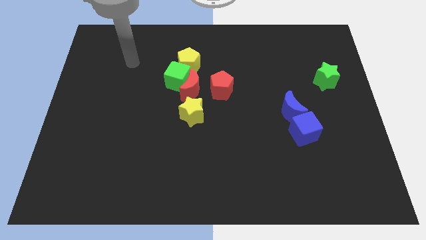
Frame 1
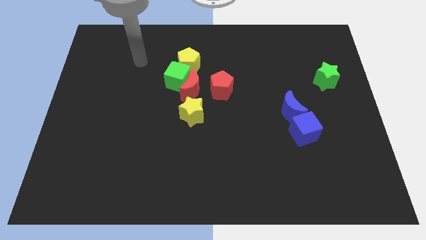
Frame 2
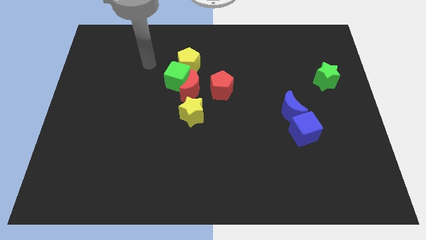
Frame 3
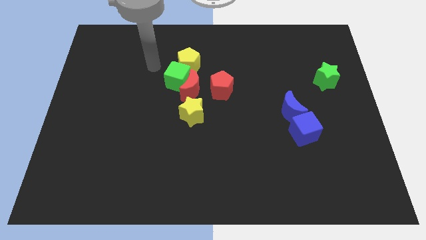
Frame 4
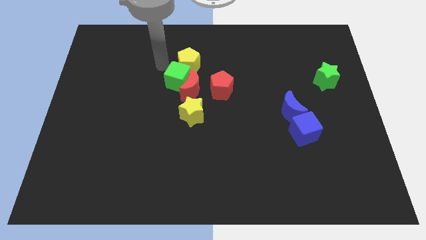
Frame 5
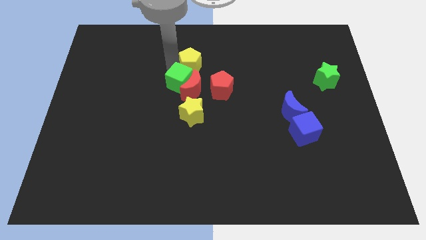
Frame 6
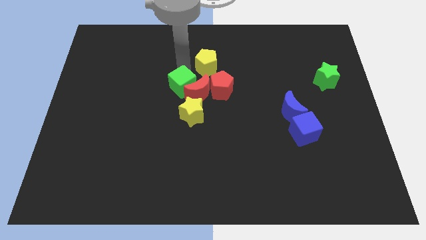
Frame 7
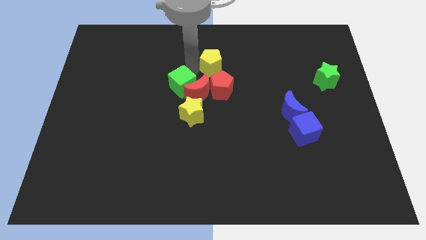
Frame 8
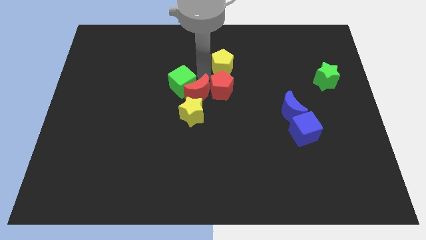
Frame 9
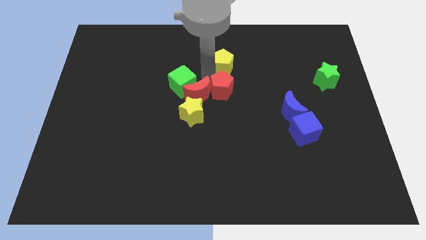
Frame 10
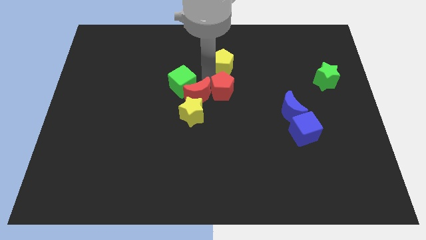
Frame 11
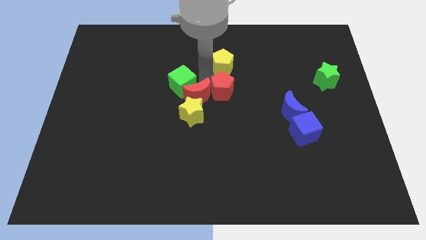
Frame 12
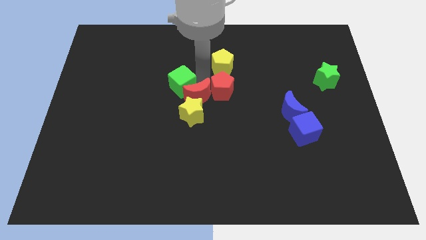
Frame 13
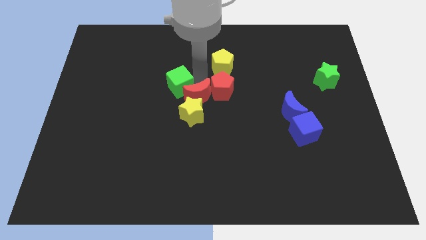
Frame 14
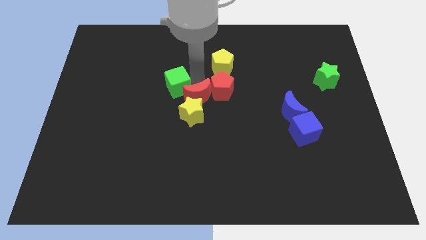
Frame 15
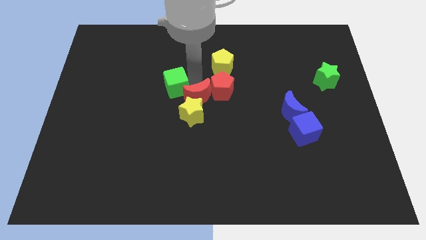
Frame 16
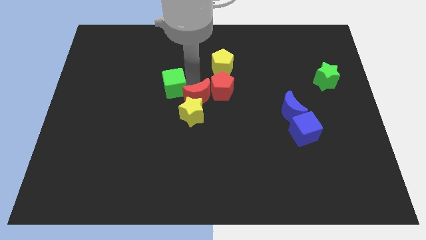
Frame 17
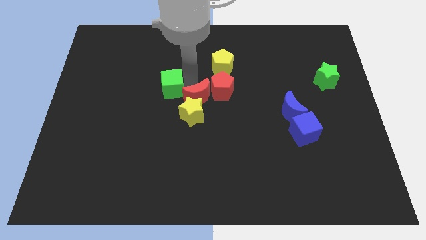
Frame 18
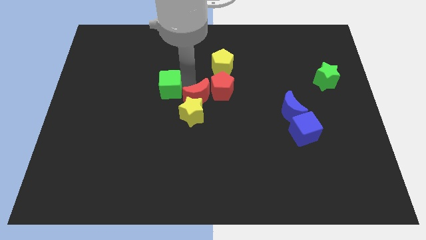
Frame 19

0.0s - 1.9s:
move the green cube away from the red moon and yellow pentagon

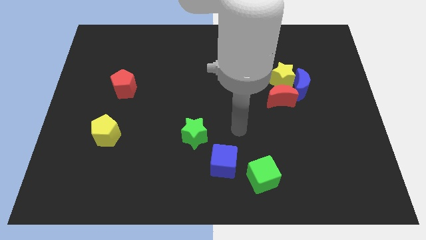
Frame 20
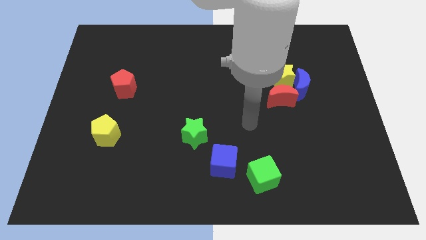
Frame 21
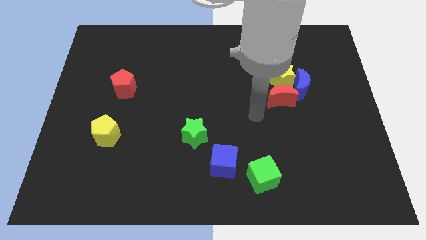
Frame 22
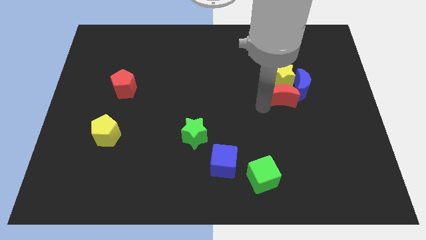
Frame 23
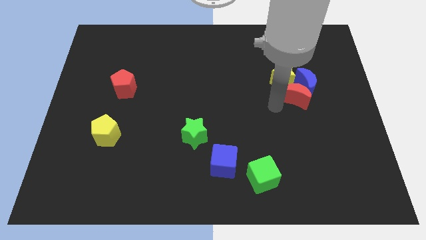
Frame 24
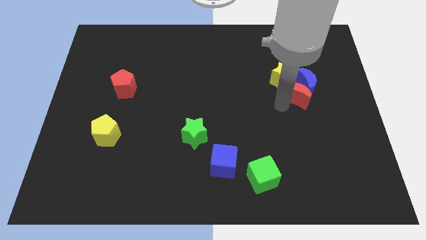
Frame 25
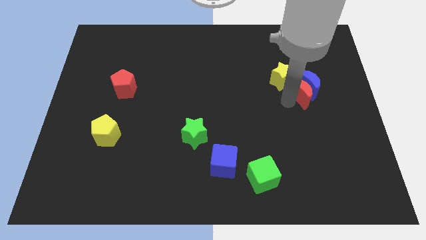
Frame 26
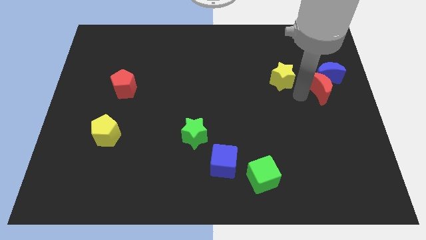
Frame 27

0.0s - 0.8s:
separate the yellow star from the blue moon and red moon

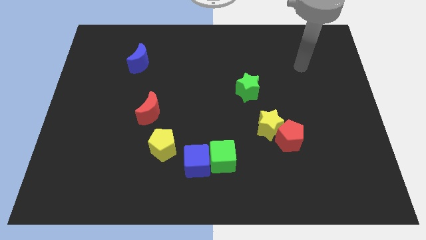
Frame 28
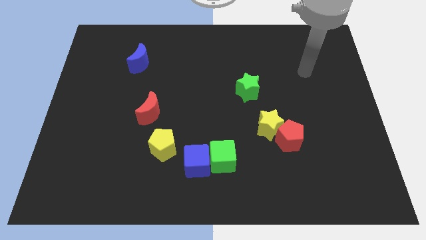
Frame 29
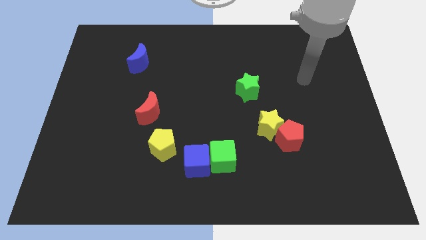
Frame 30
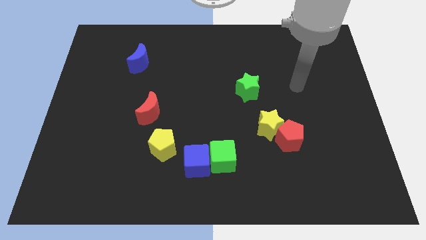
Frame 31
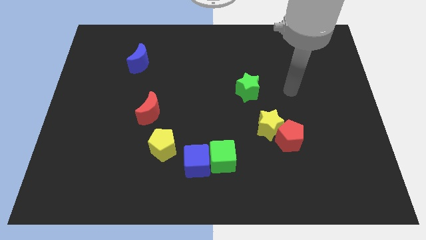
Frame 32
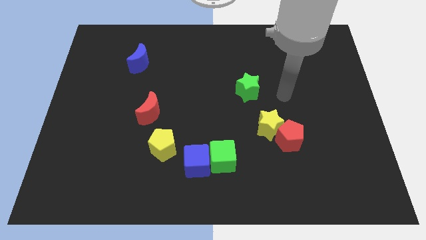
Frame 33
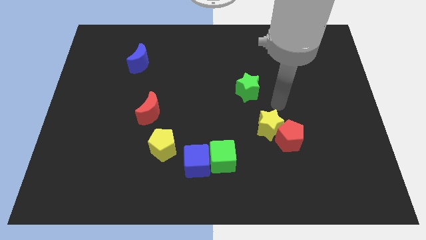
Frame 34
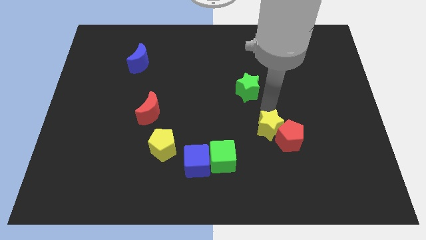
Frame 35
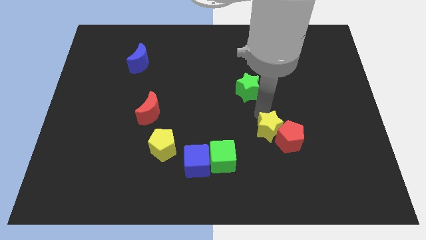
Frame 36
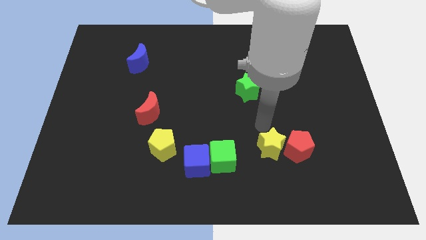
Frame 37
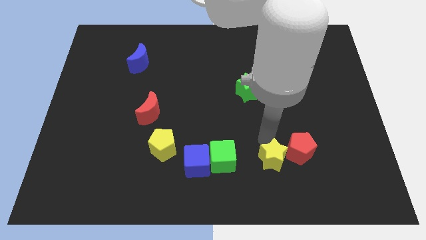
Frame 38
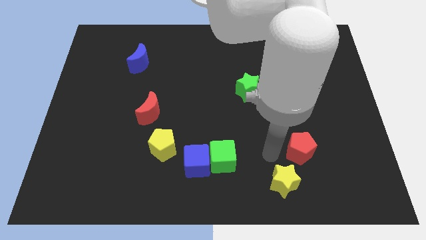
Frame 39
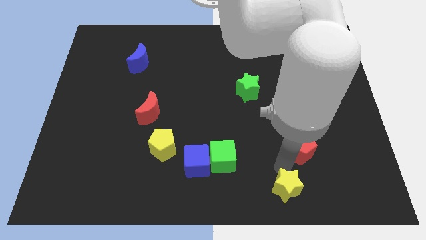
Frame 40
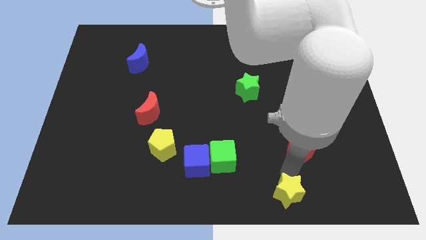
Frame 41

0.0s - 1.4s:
separate the red pentagon from the yellow star

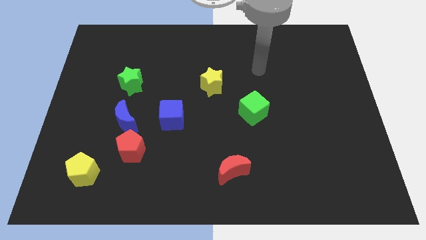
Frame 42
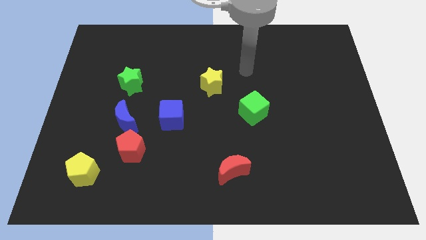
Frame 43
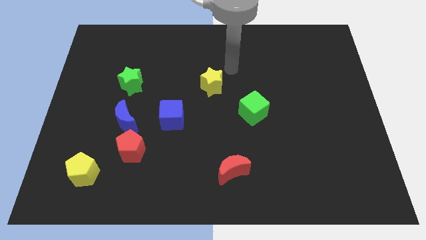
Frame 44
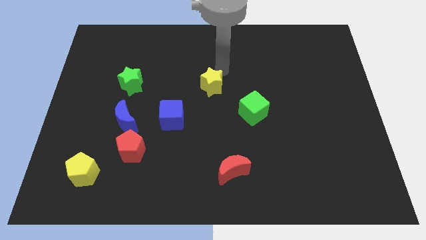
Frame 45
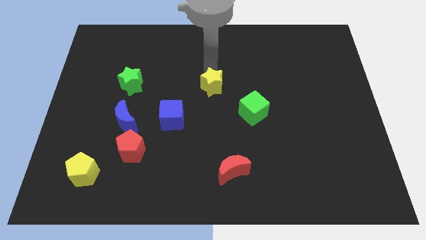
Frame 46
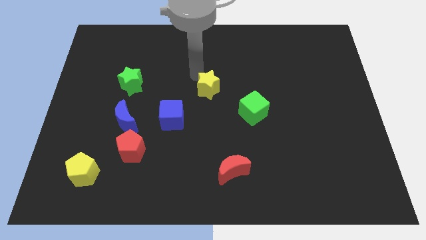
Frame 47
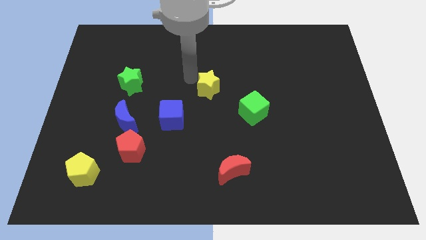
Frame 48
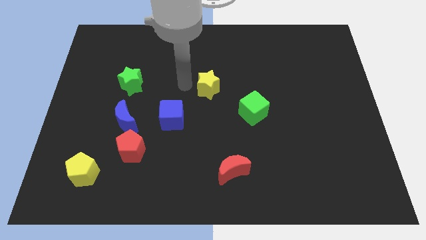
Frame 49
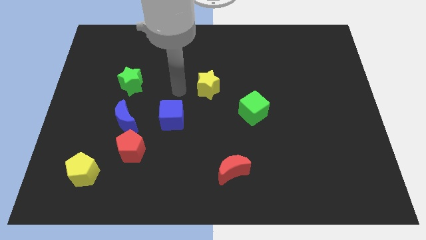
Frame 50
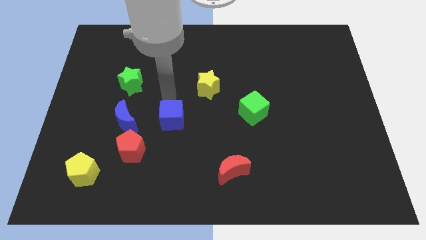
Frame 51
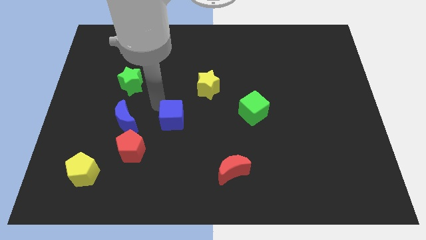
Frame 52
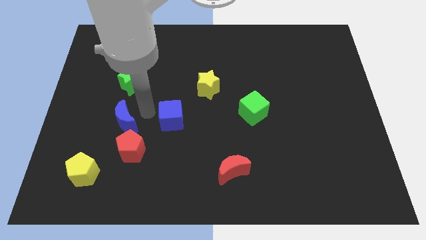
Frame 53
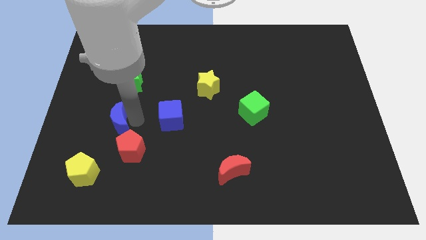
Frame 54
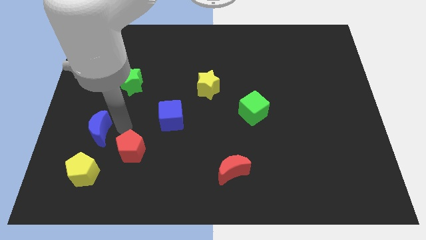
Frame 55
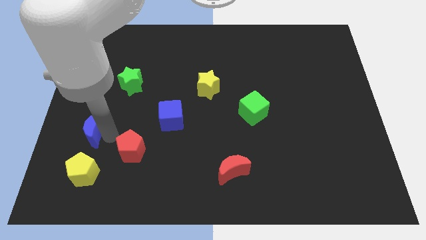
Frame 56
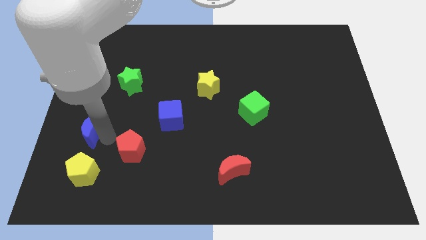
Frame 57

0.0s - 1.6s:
move the red pentagon away from the blue moon

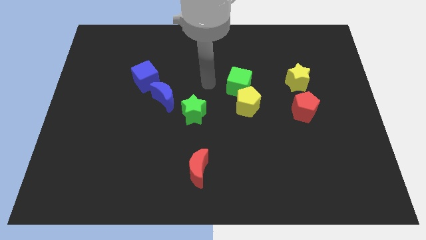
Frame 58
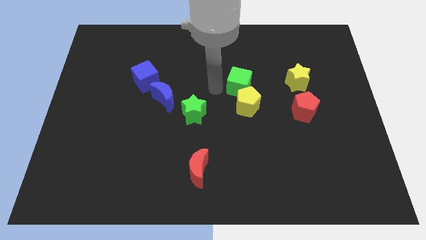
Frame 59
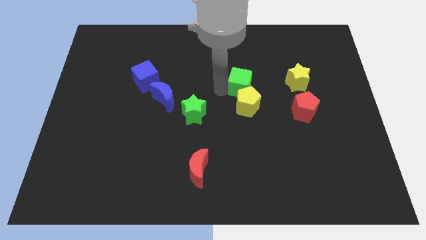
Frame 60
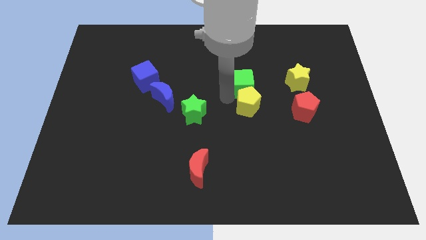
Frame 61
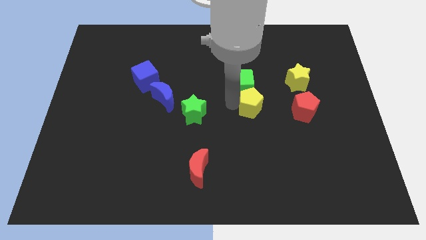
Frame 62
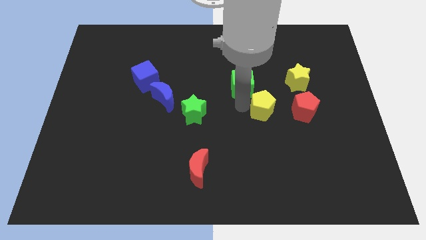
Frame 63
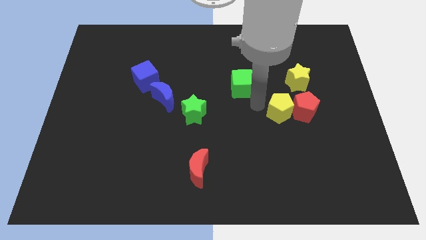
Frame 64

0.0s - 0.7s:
separate the green cube from the yellow pentagon

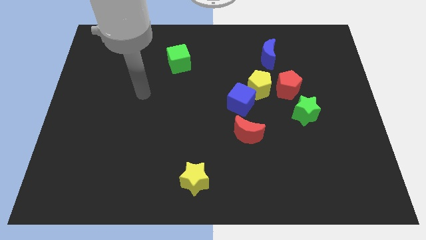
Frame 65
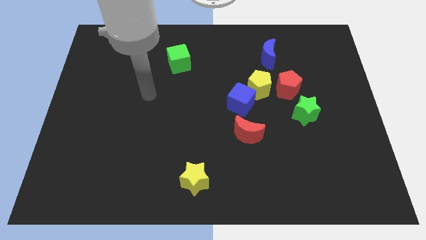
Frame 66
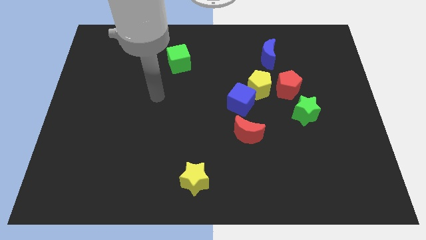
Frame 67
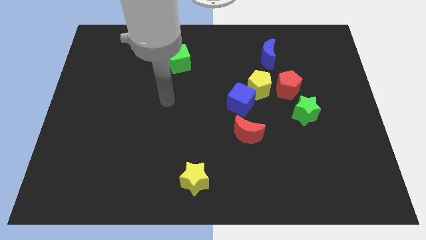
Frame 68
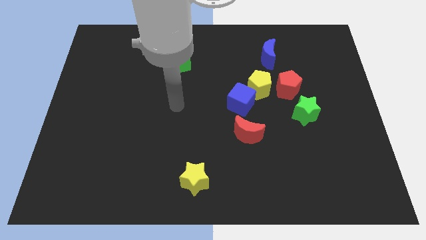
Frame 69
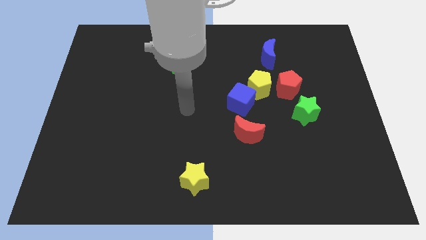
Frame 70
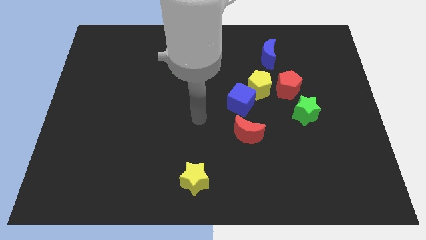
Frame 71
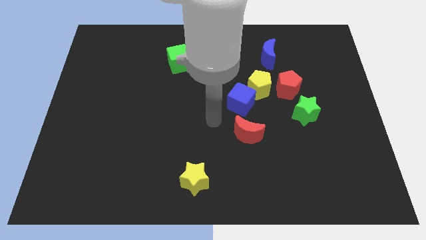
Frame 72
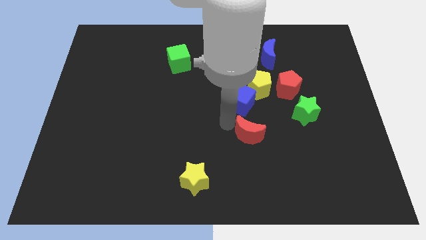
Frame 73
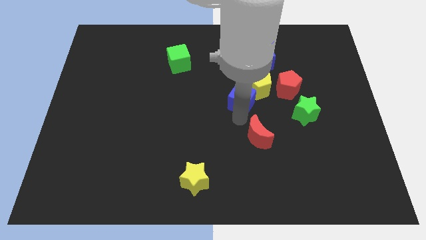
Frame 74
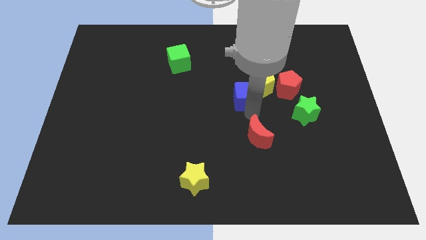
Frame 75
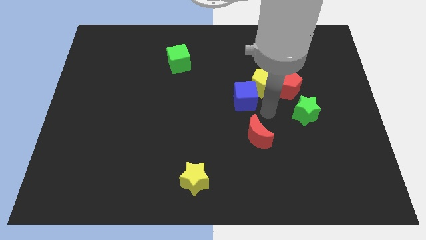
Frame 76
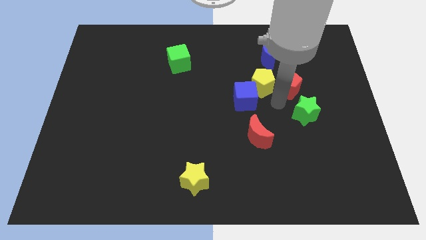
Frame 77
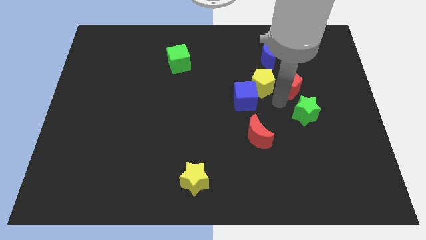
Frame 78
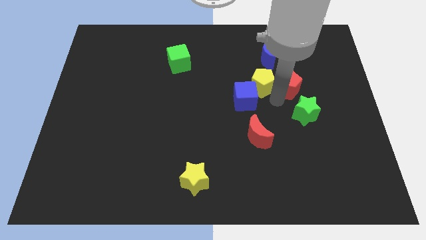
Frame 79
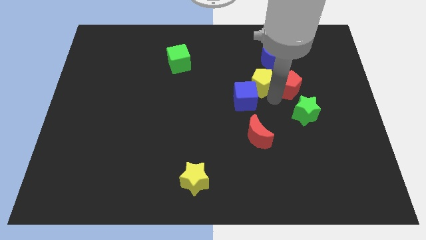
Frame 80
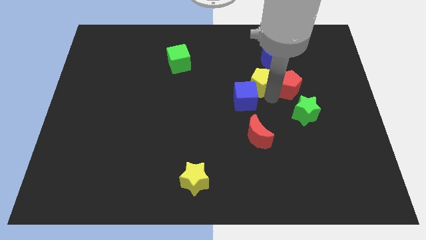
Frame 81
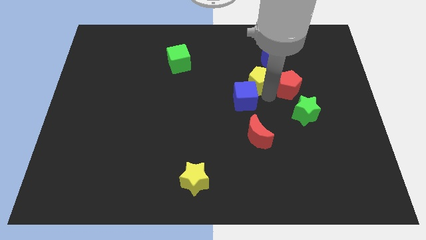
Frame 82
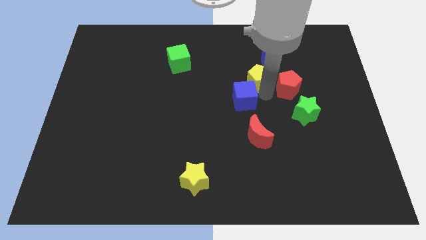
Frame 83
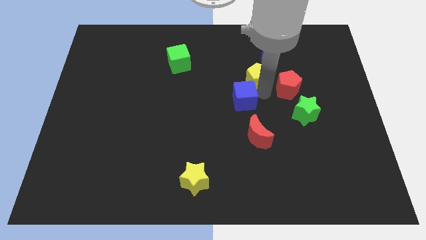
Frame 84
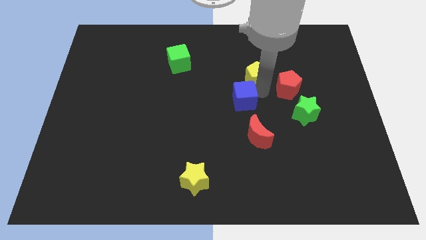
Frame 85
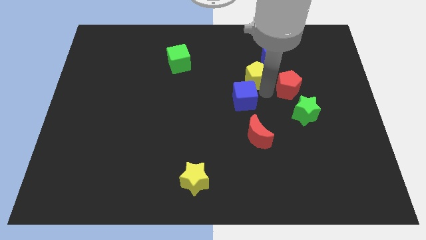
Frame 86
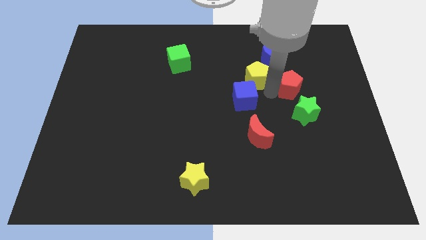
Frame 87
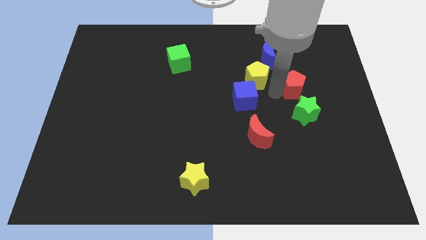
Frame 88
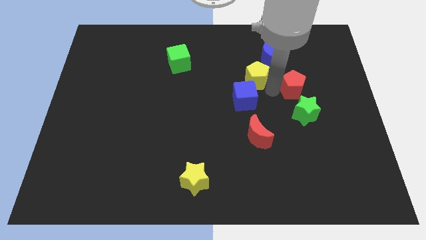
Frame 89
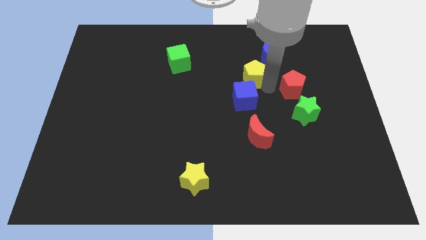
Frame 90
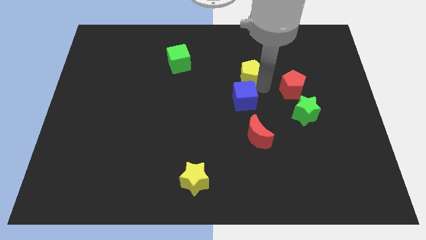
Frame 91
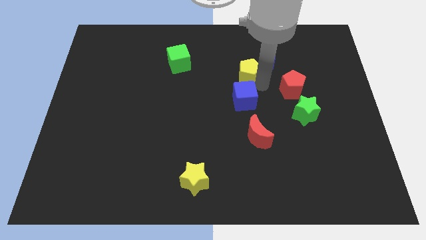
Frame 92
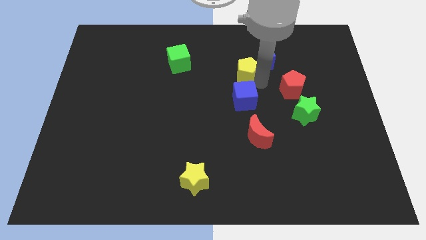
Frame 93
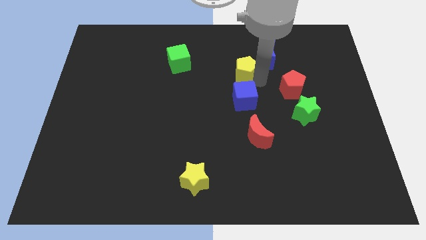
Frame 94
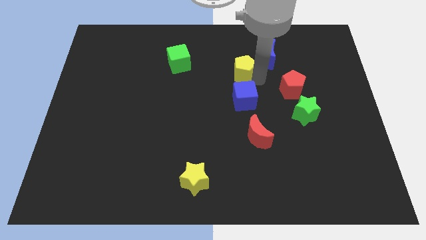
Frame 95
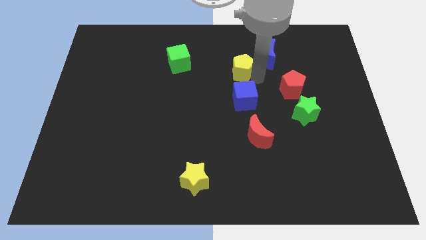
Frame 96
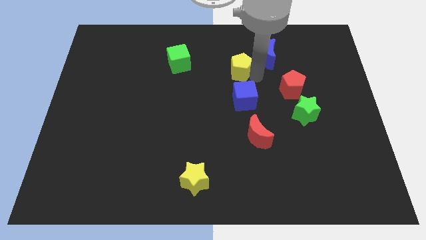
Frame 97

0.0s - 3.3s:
move the yellow pentagon away from the blue cube and red pentagon
